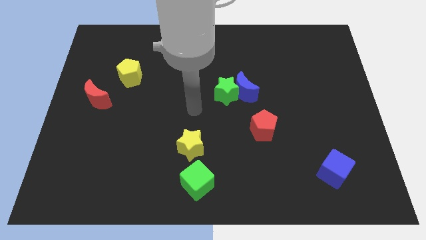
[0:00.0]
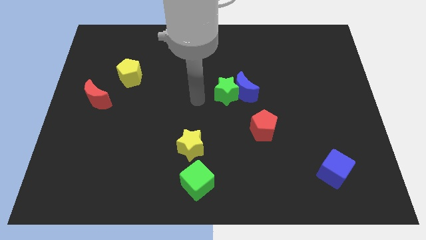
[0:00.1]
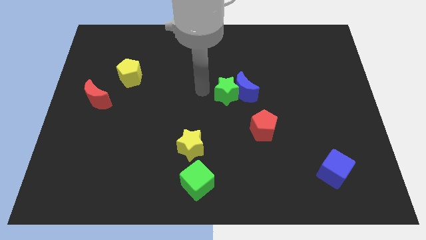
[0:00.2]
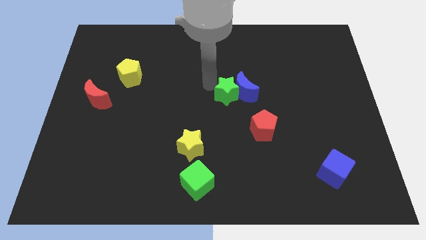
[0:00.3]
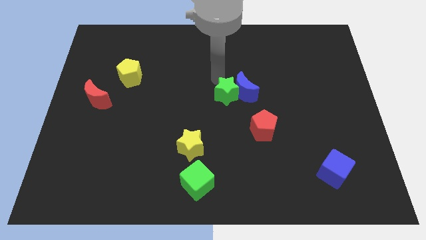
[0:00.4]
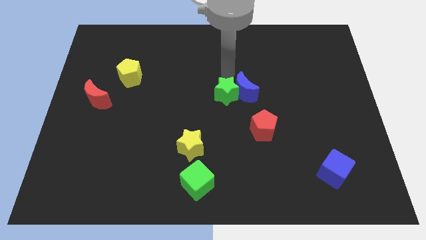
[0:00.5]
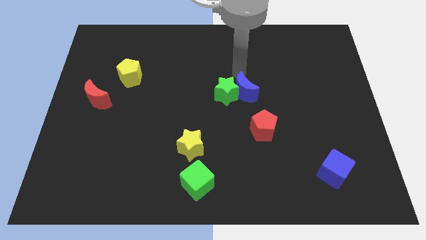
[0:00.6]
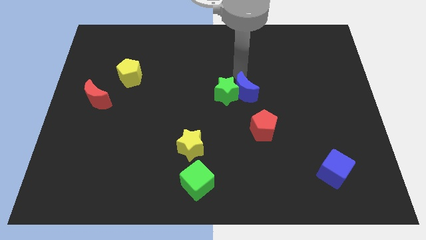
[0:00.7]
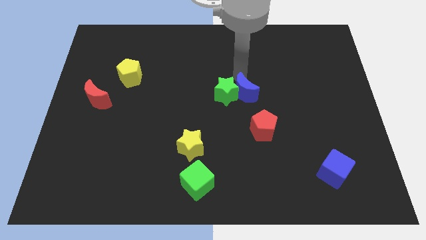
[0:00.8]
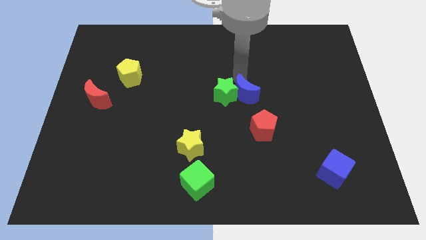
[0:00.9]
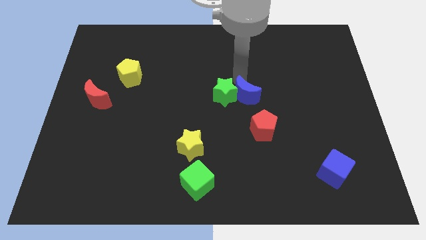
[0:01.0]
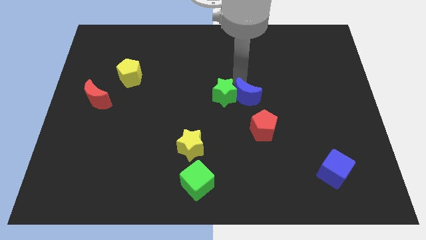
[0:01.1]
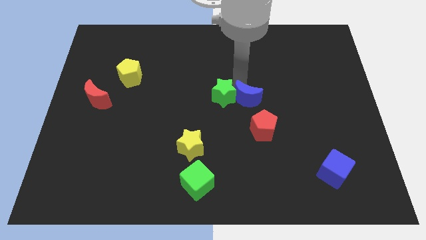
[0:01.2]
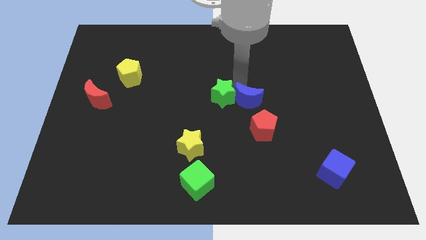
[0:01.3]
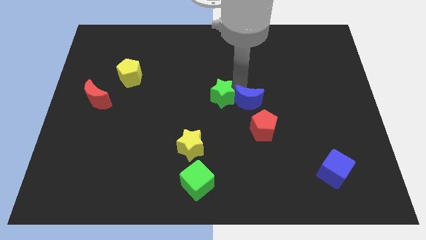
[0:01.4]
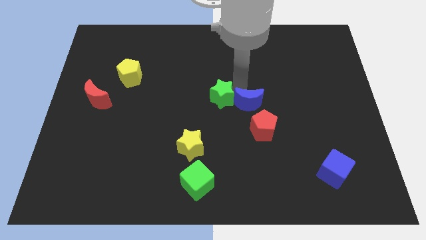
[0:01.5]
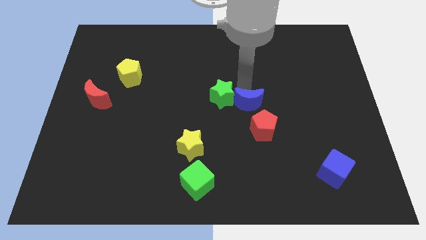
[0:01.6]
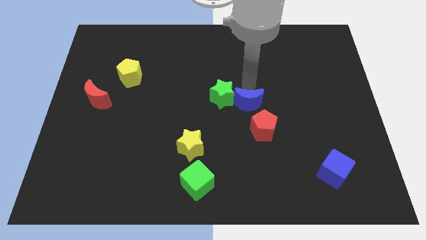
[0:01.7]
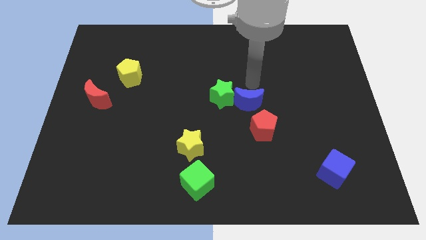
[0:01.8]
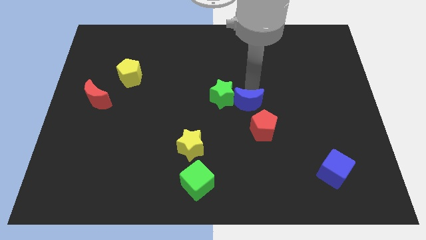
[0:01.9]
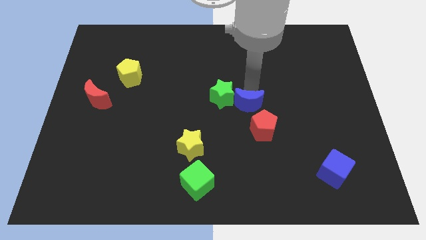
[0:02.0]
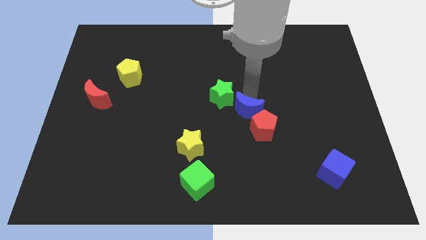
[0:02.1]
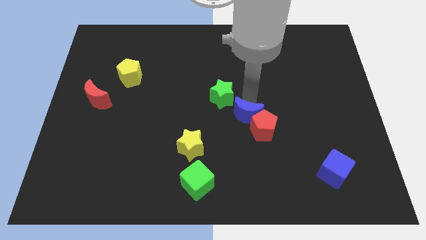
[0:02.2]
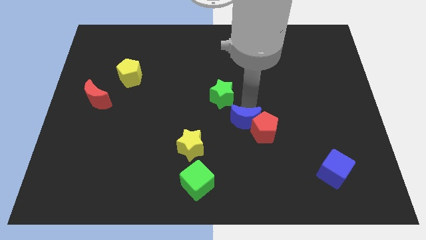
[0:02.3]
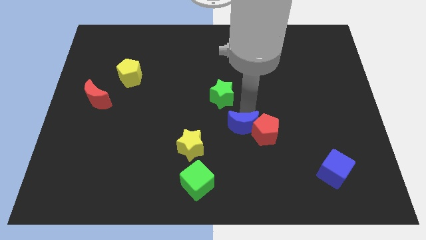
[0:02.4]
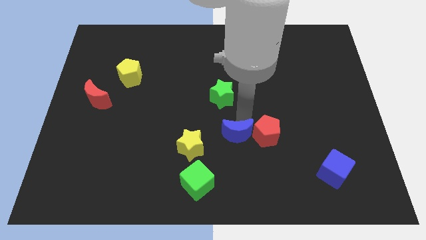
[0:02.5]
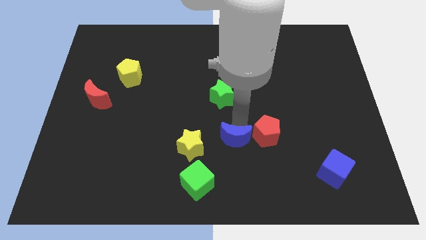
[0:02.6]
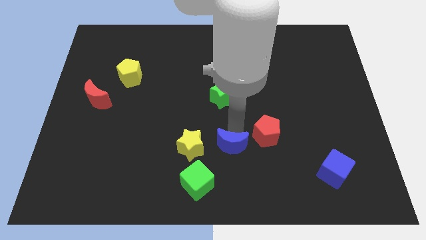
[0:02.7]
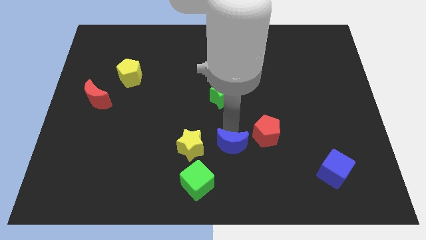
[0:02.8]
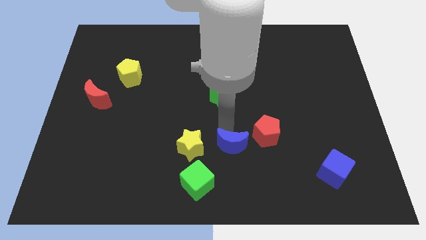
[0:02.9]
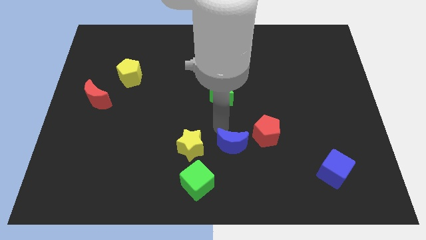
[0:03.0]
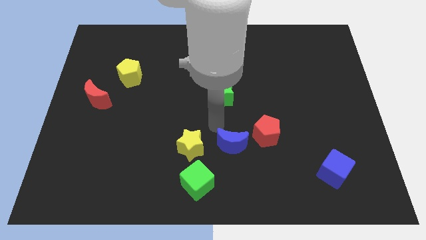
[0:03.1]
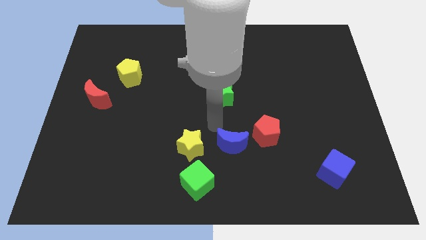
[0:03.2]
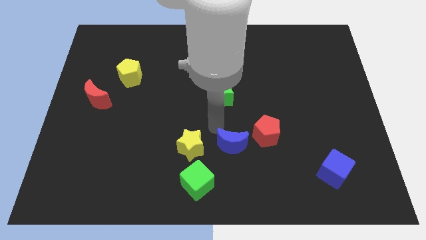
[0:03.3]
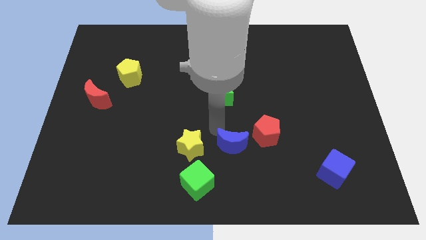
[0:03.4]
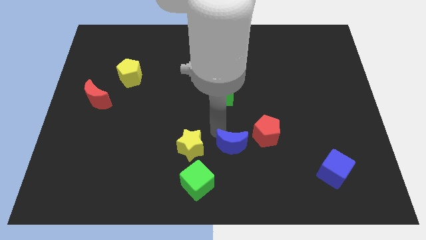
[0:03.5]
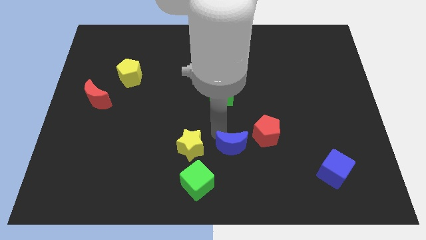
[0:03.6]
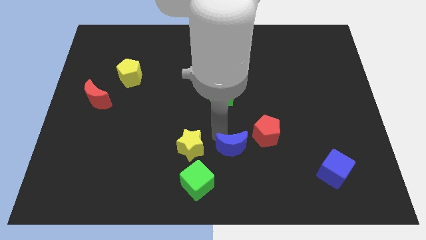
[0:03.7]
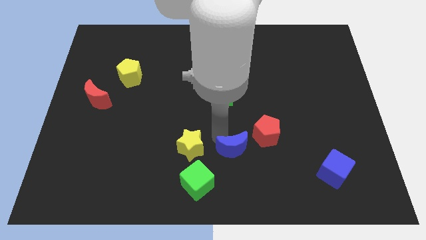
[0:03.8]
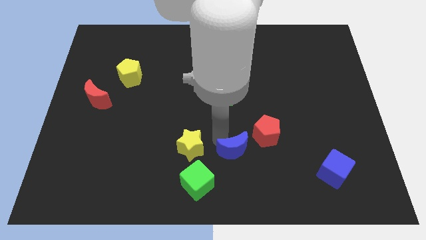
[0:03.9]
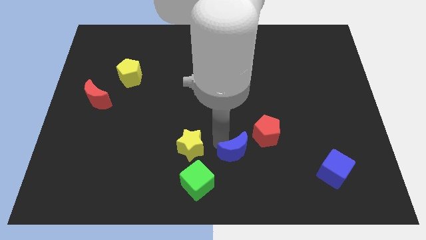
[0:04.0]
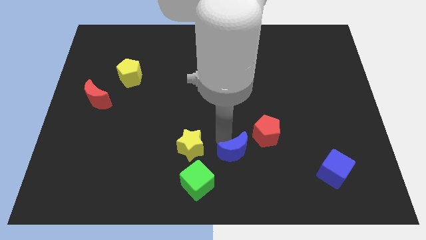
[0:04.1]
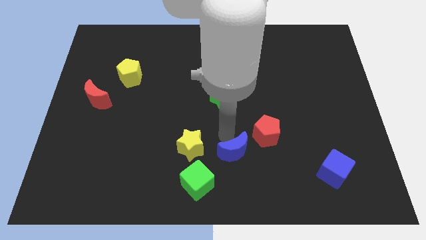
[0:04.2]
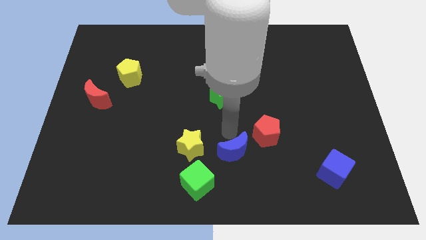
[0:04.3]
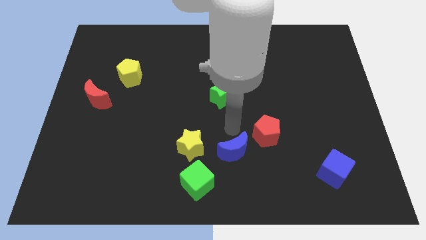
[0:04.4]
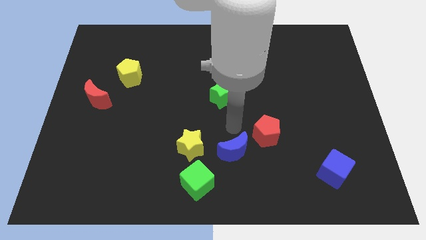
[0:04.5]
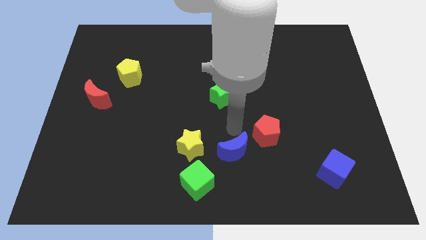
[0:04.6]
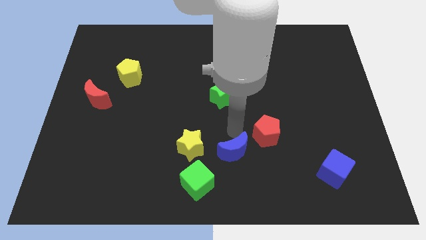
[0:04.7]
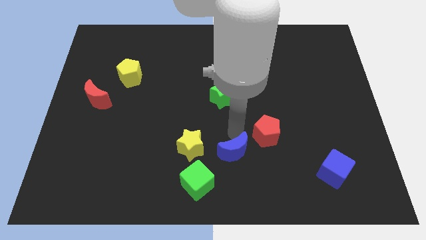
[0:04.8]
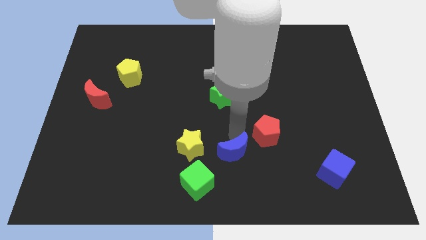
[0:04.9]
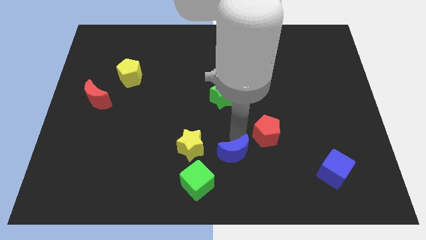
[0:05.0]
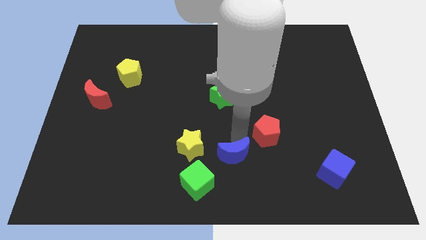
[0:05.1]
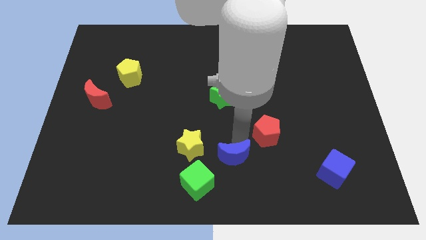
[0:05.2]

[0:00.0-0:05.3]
move the blue moon to the bottom
